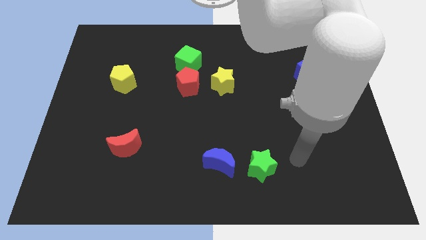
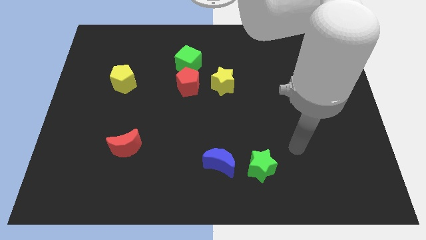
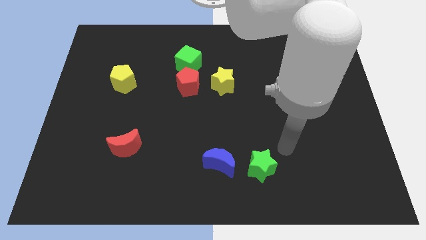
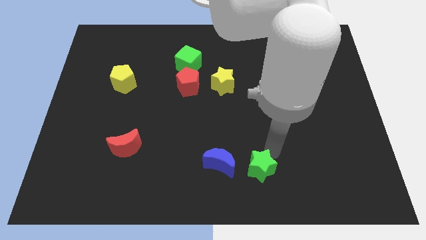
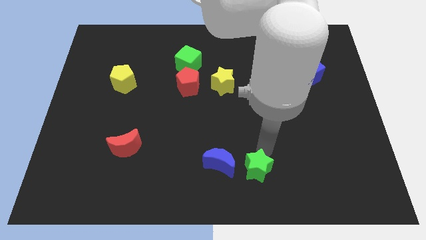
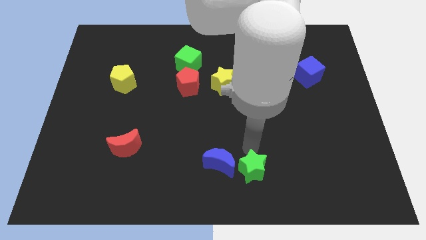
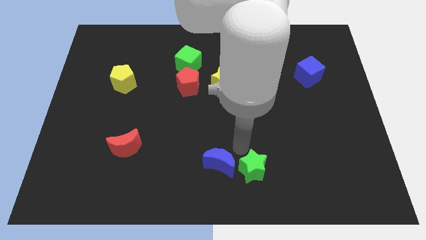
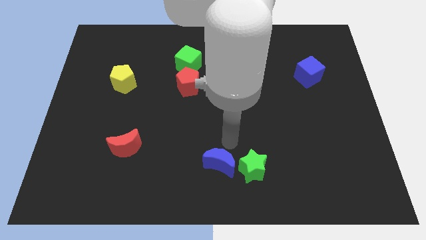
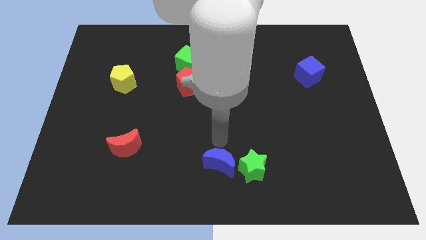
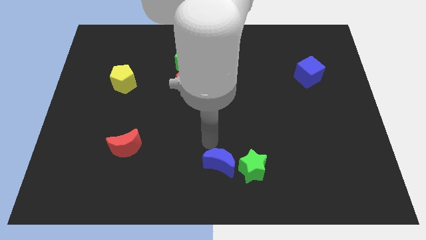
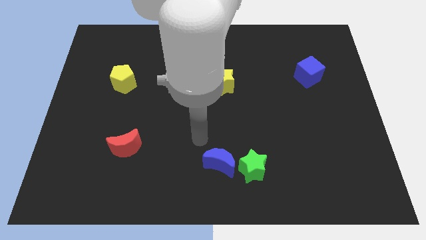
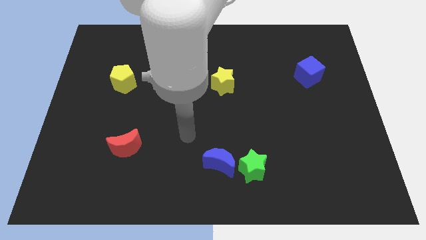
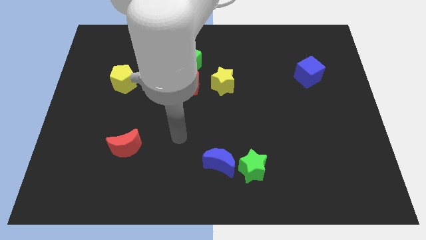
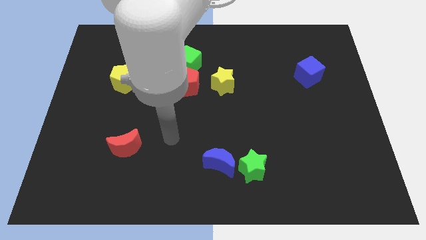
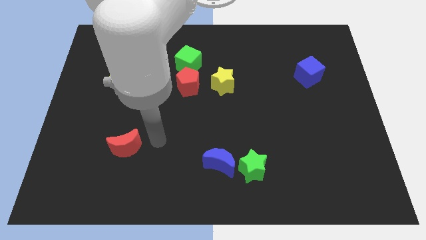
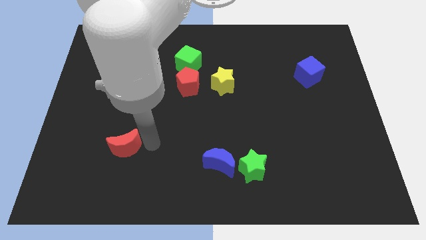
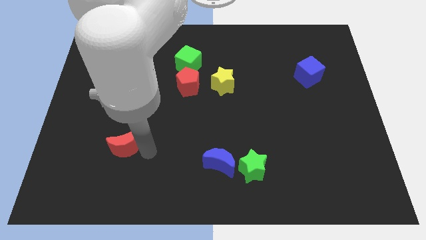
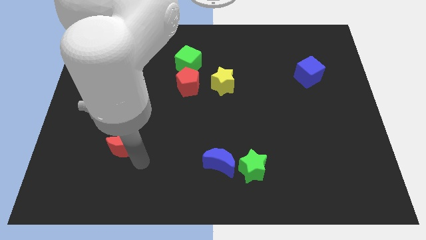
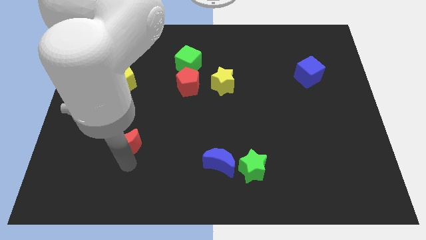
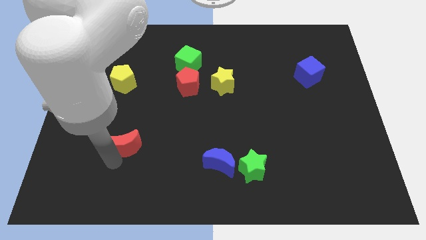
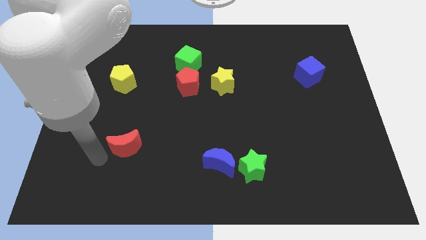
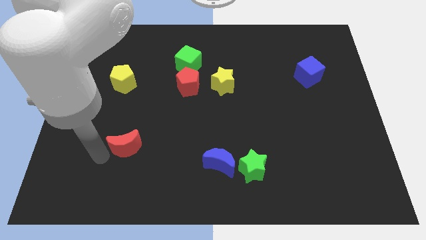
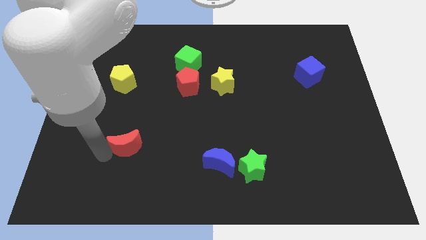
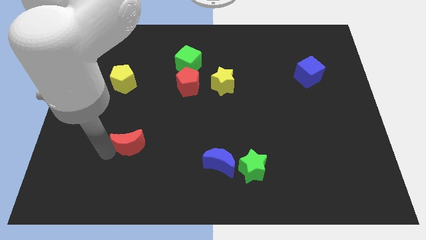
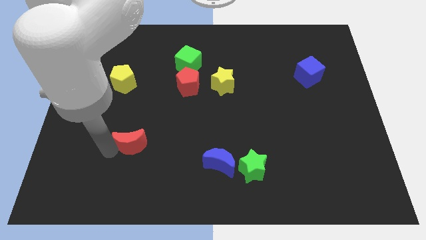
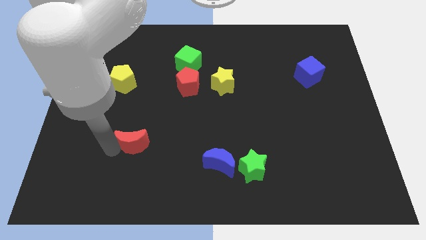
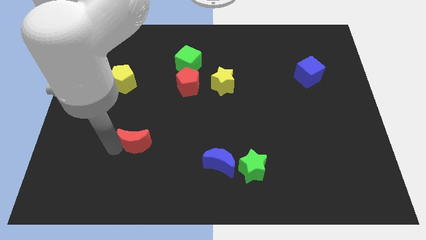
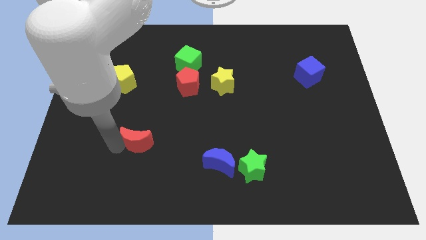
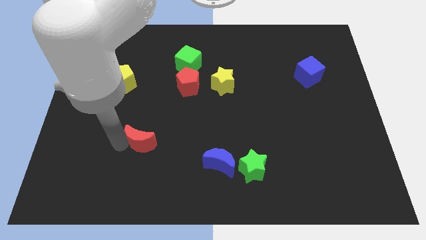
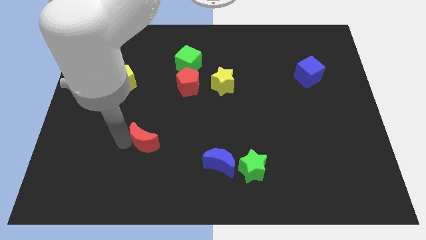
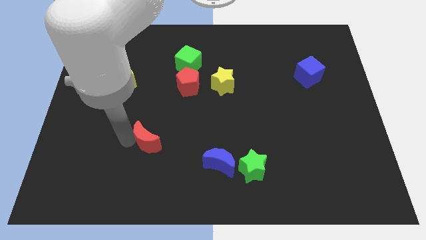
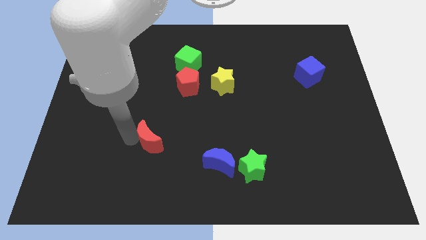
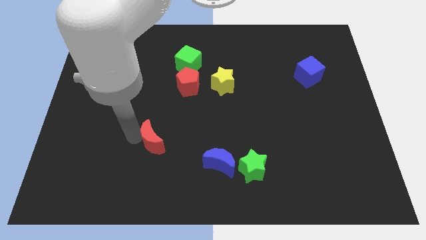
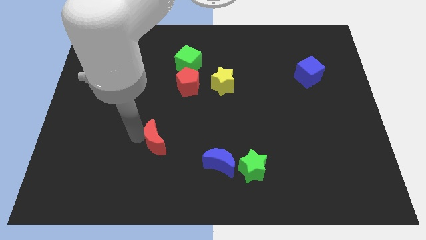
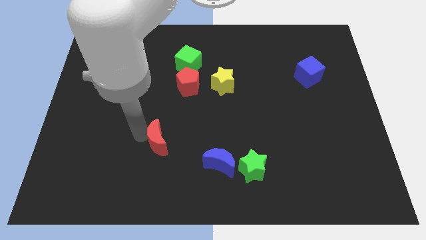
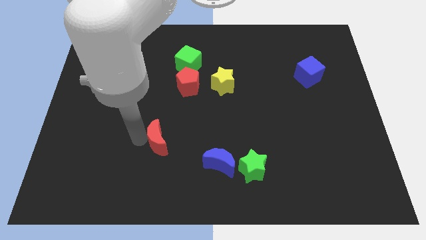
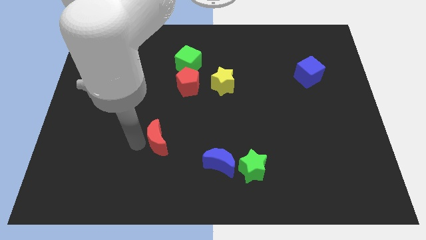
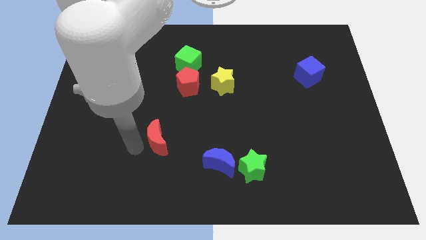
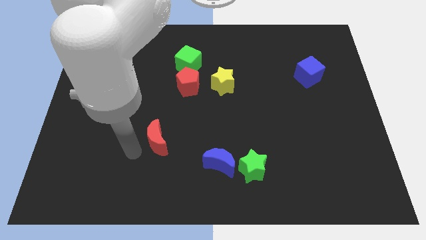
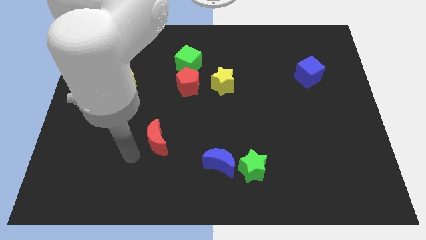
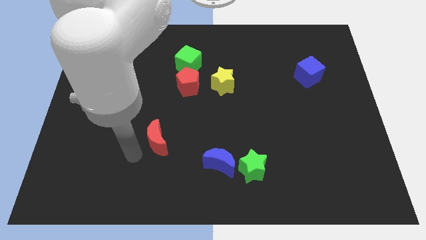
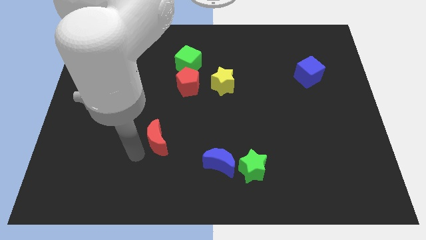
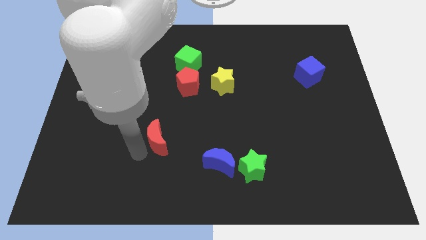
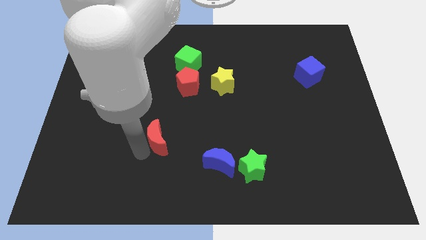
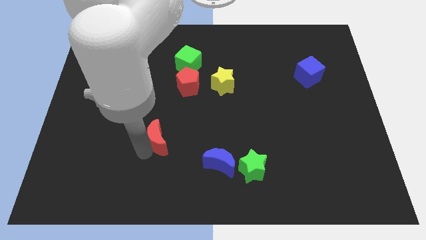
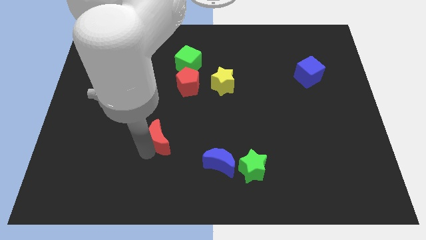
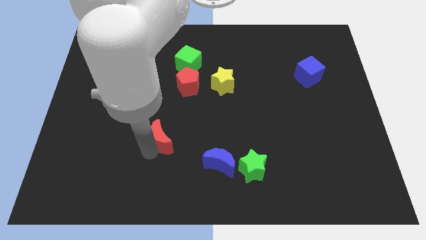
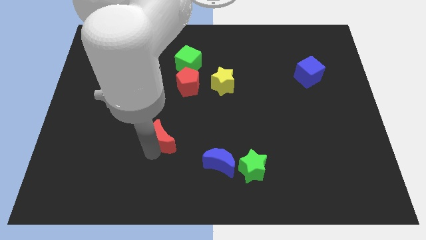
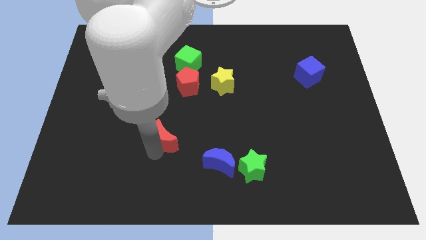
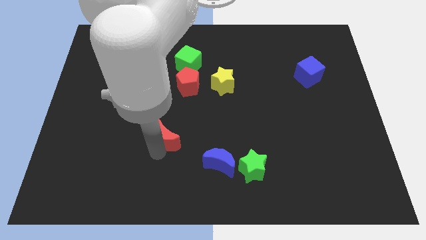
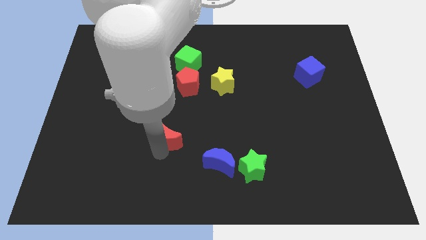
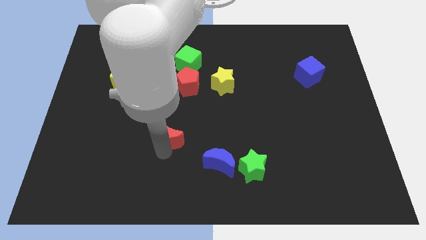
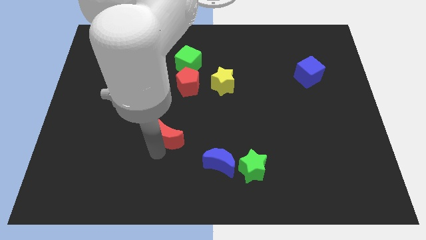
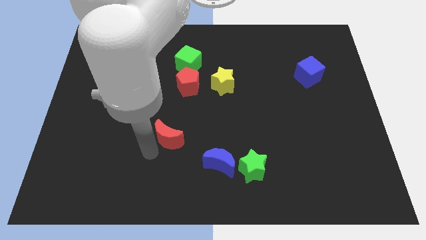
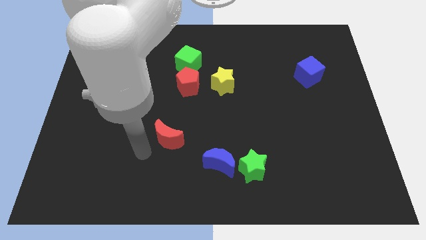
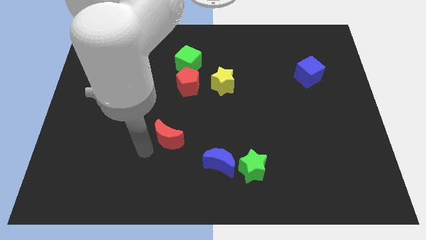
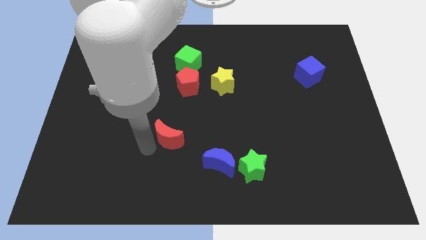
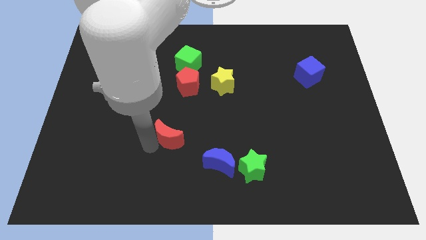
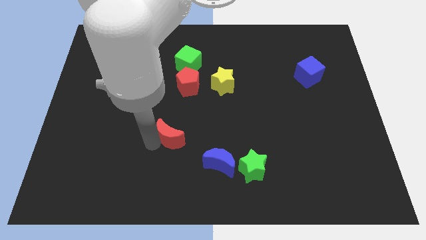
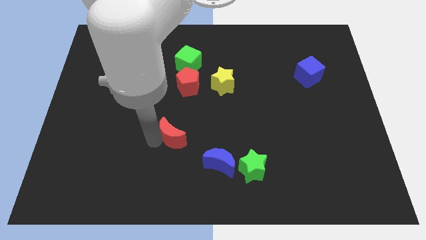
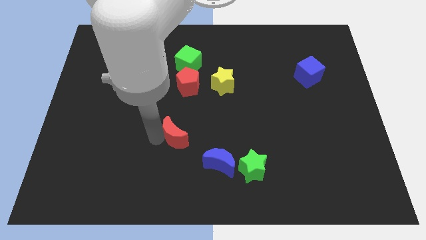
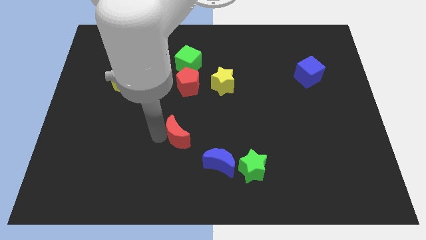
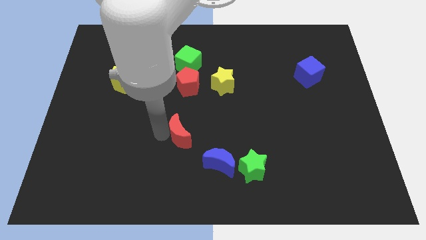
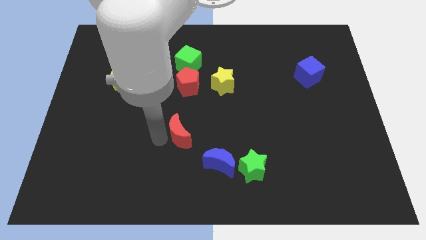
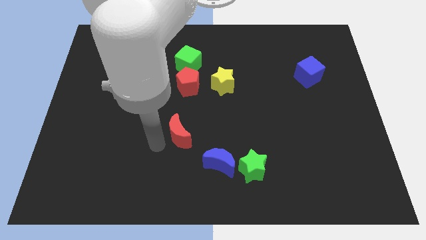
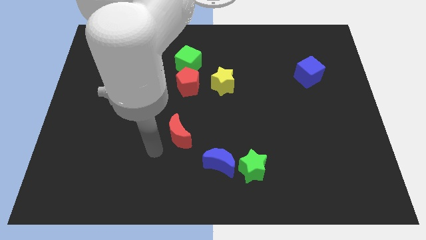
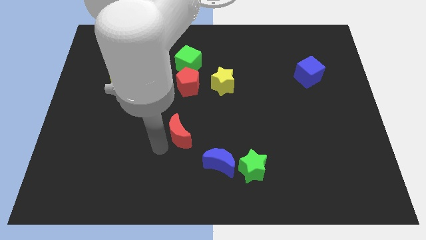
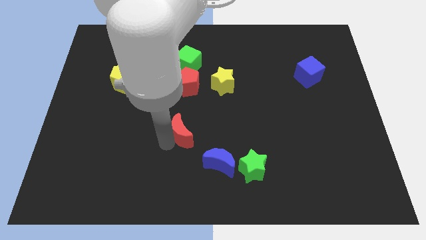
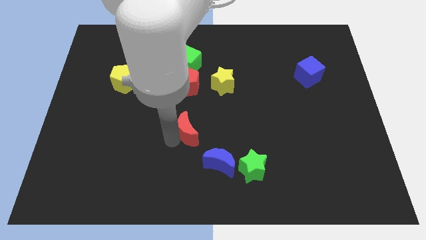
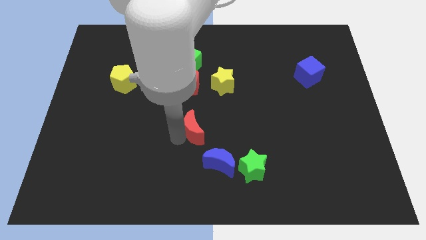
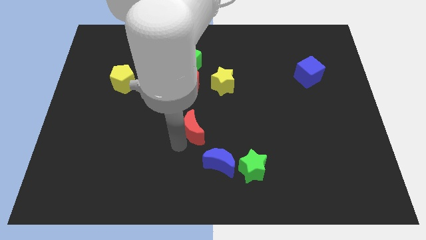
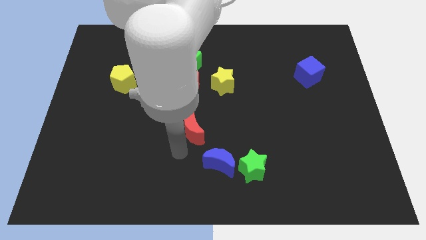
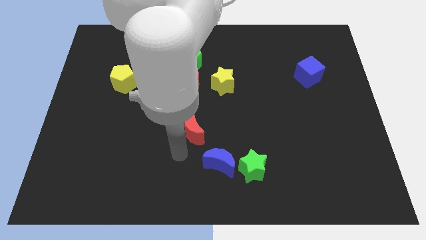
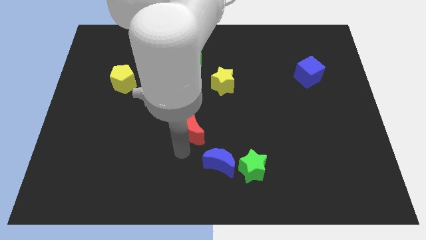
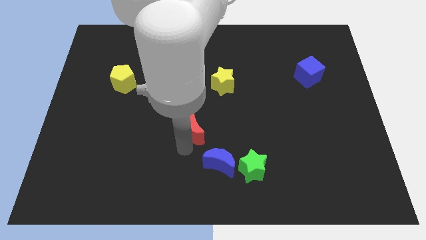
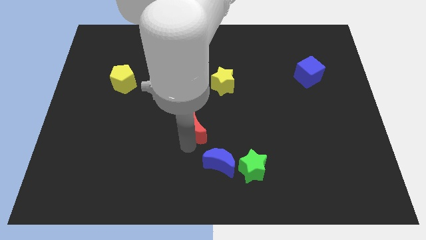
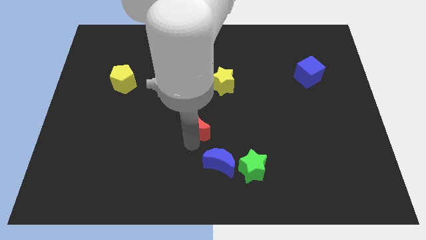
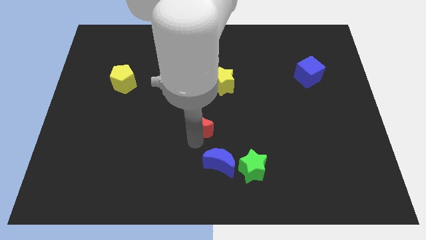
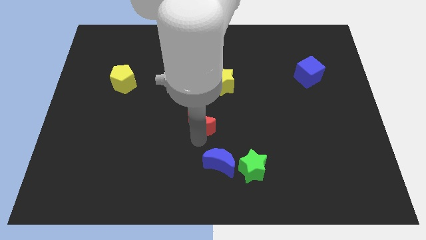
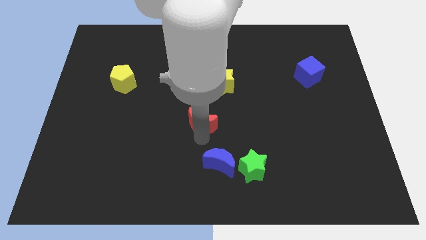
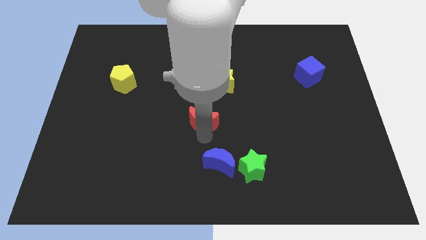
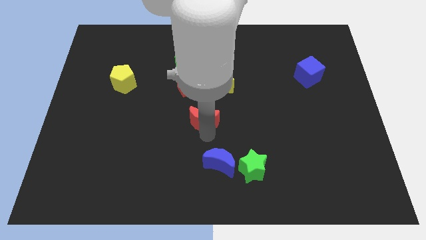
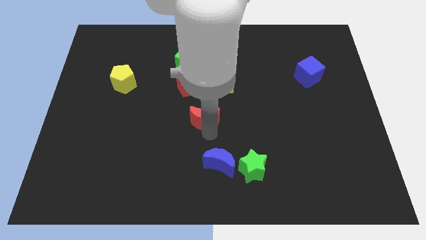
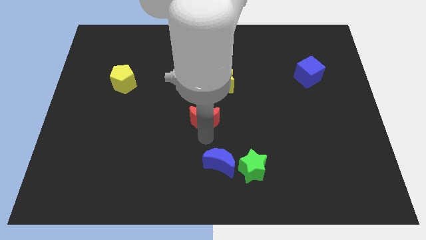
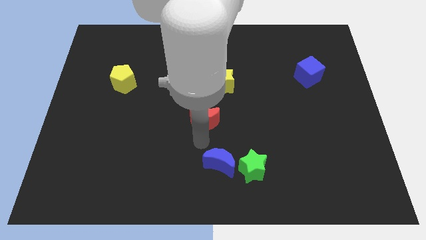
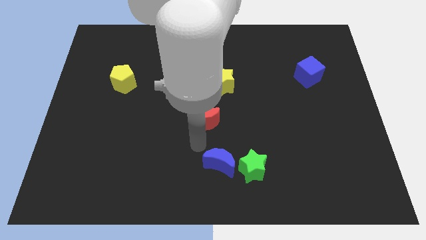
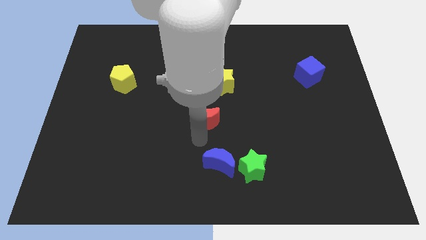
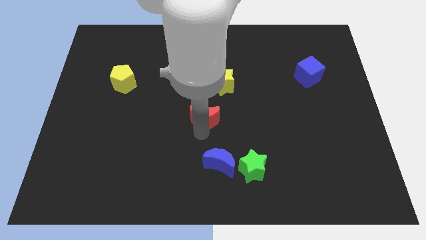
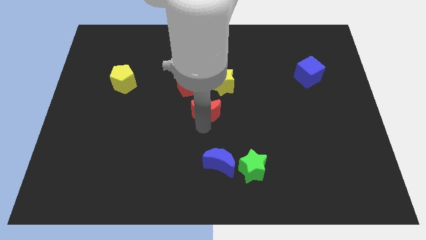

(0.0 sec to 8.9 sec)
move the red moon to the bottom right of the red pentagon
